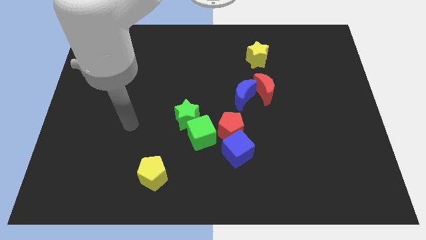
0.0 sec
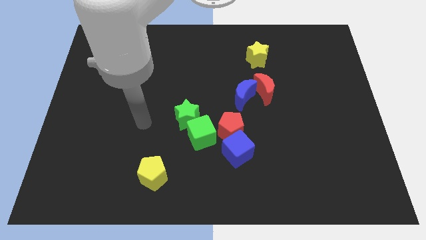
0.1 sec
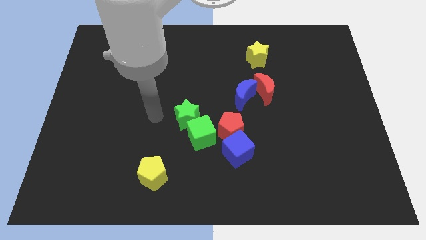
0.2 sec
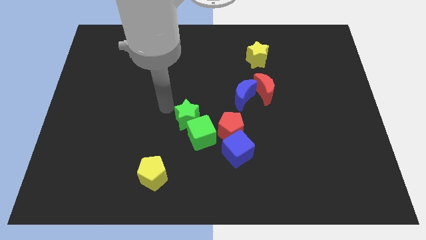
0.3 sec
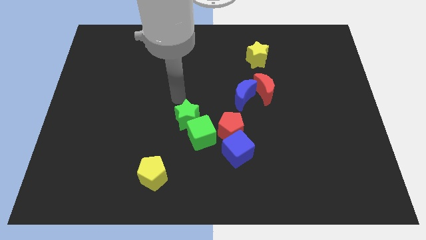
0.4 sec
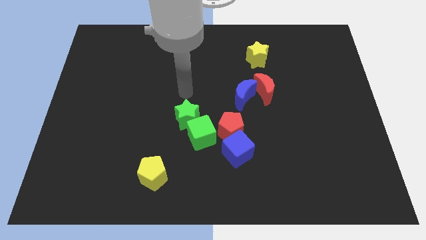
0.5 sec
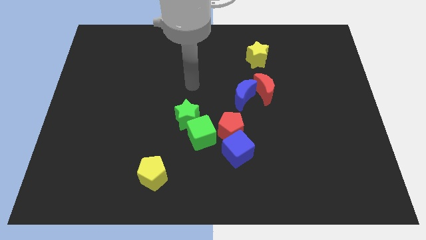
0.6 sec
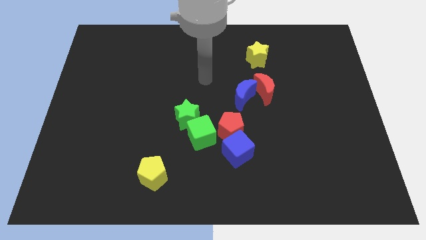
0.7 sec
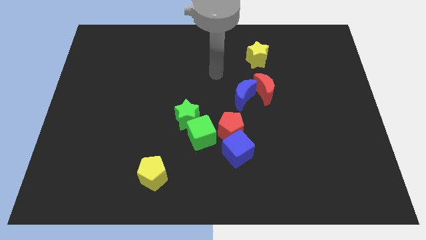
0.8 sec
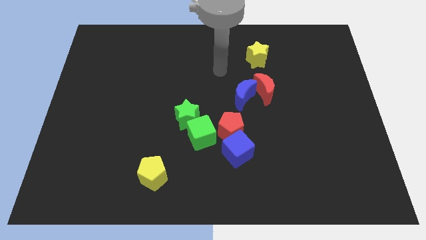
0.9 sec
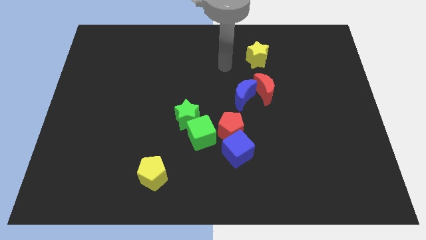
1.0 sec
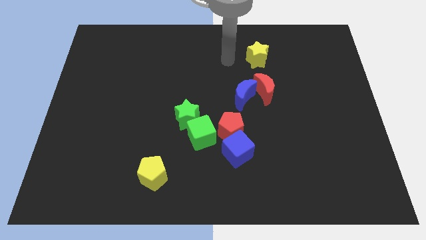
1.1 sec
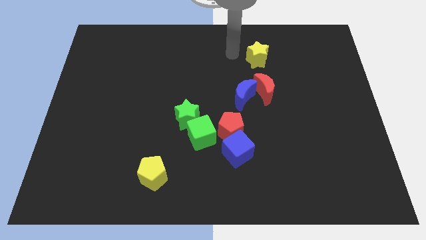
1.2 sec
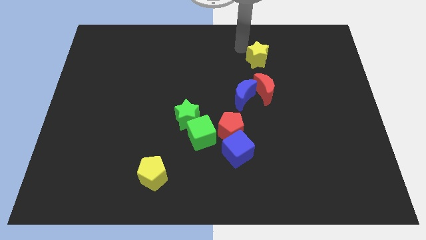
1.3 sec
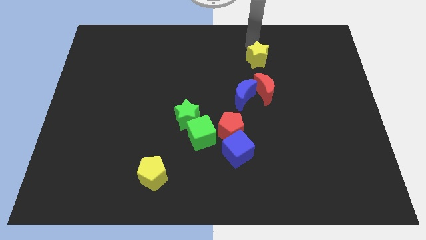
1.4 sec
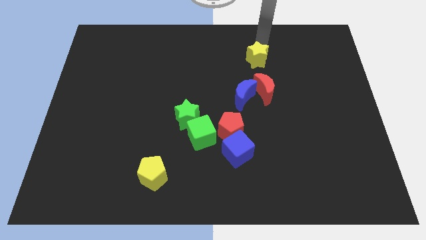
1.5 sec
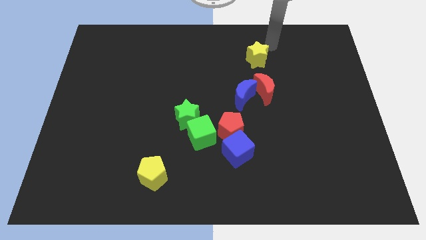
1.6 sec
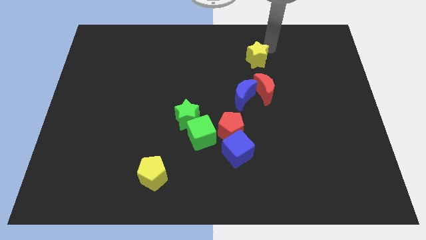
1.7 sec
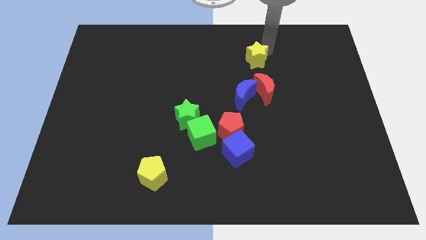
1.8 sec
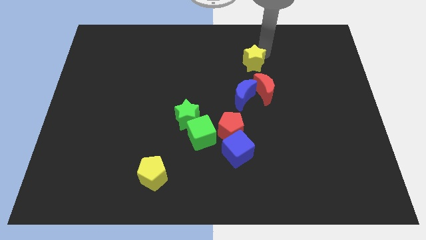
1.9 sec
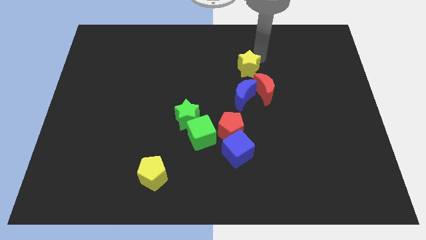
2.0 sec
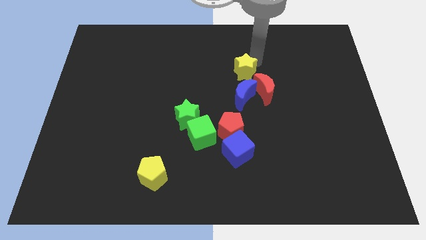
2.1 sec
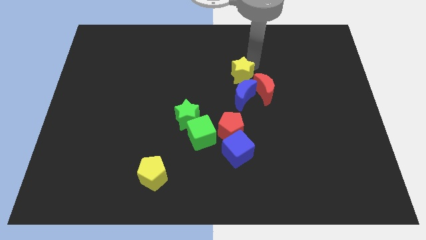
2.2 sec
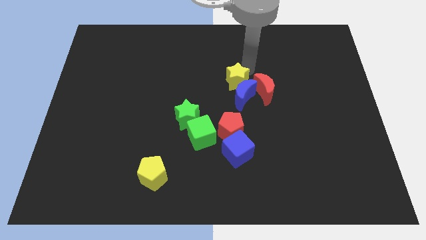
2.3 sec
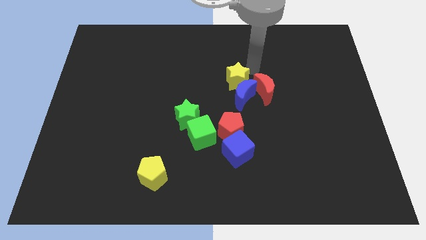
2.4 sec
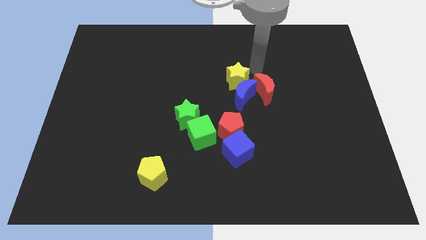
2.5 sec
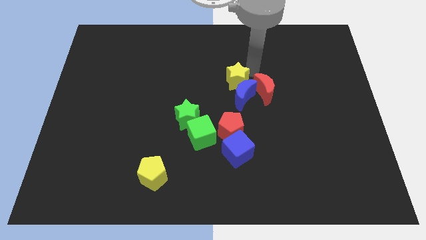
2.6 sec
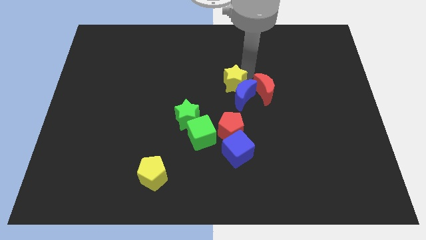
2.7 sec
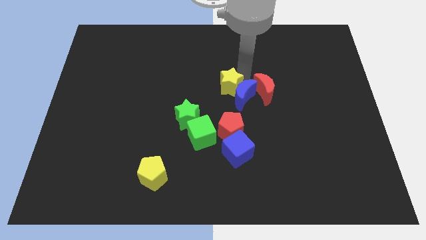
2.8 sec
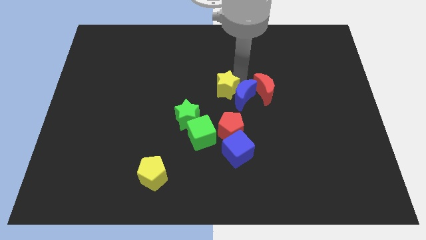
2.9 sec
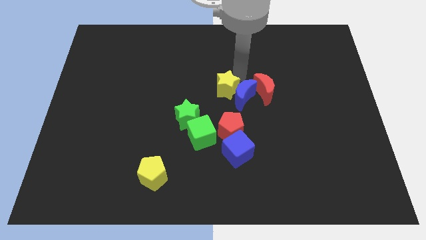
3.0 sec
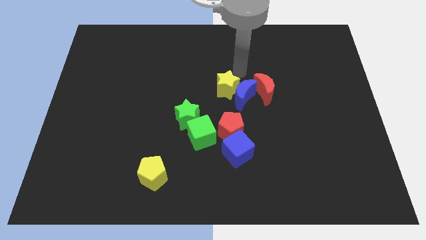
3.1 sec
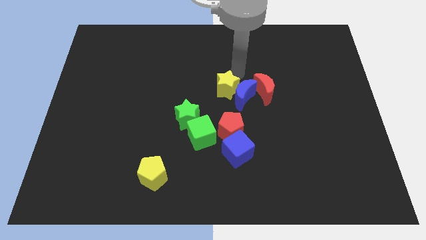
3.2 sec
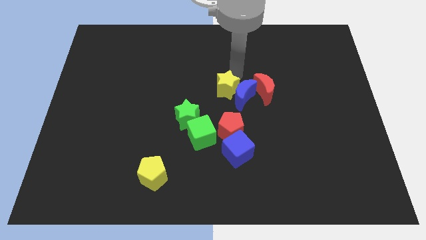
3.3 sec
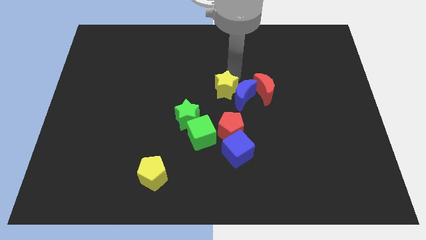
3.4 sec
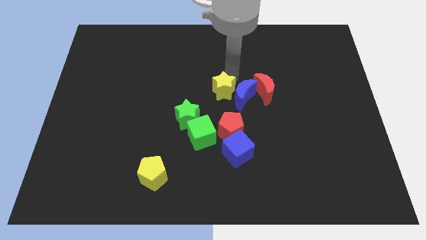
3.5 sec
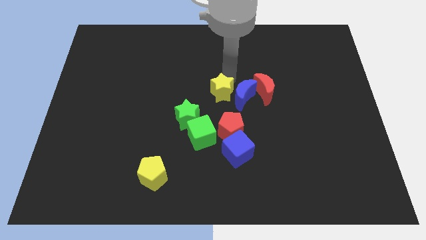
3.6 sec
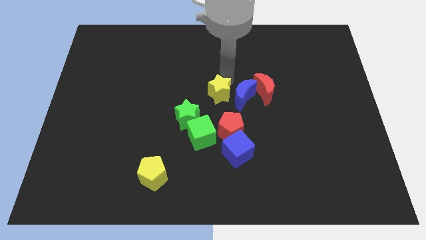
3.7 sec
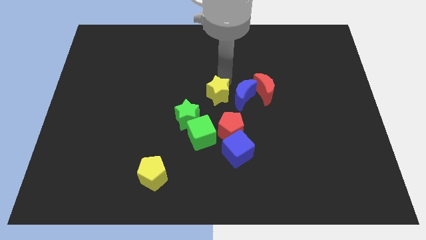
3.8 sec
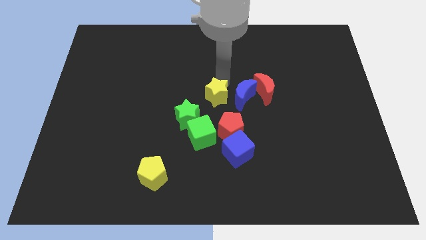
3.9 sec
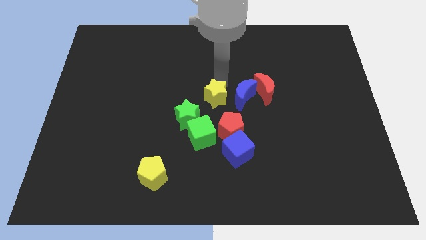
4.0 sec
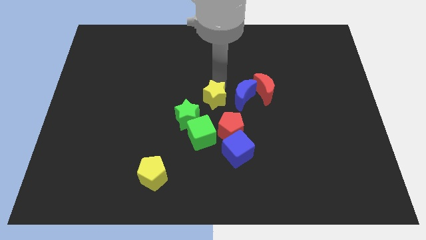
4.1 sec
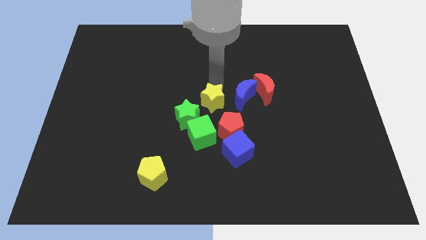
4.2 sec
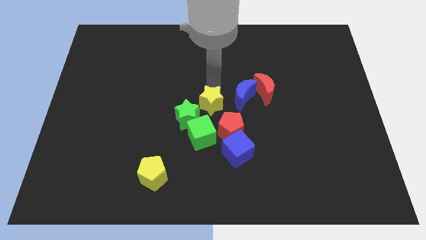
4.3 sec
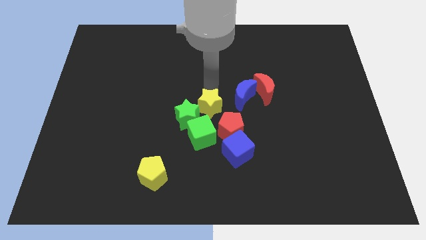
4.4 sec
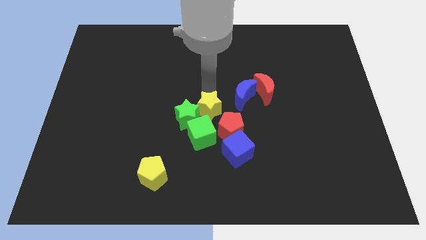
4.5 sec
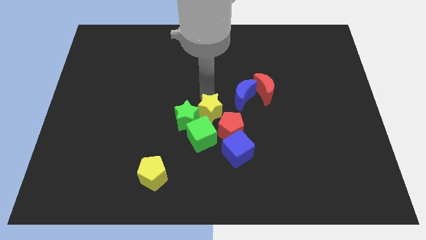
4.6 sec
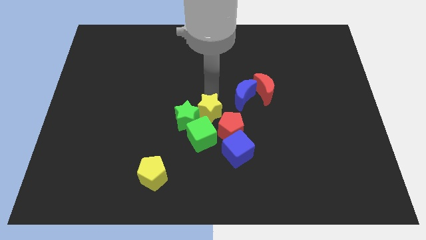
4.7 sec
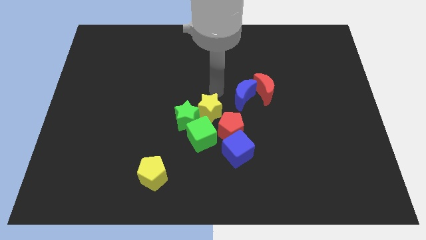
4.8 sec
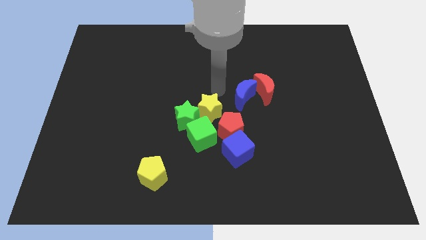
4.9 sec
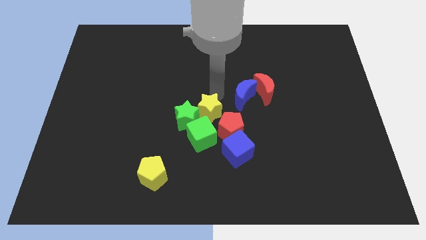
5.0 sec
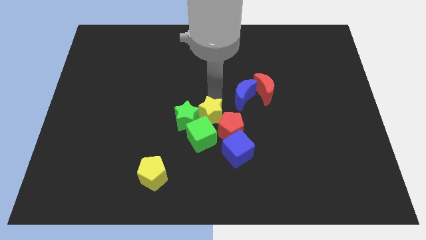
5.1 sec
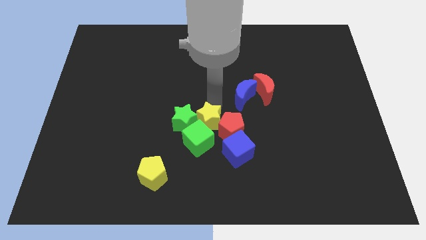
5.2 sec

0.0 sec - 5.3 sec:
slide the yellow star next to the green cube

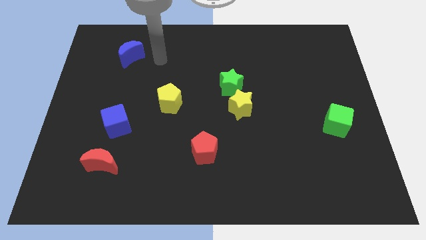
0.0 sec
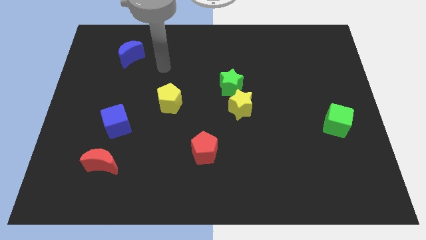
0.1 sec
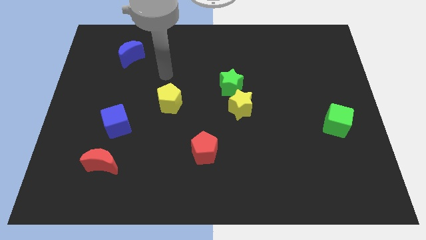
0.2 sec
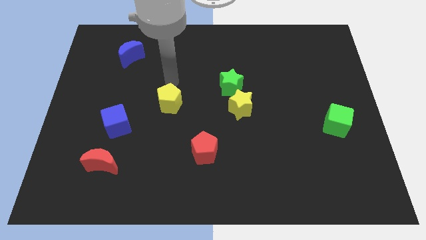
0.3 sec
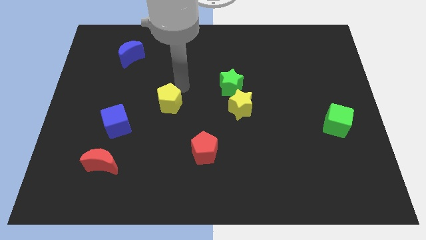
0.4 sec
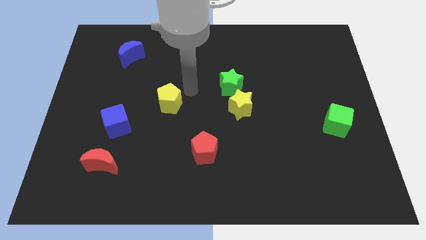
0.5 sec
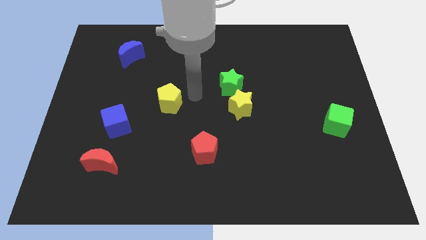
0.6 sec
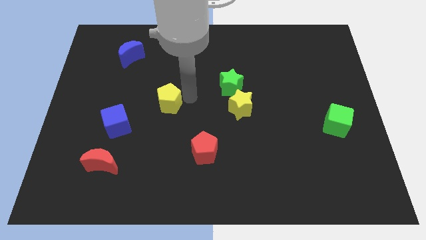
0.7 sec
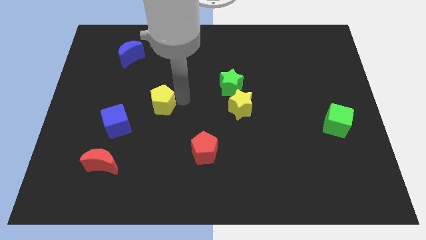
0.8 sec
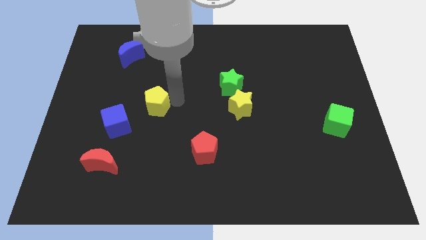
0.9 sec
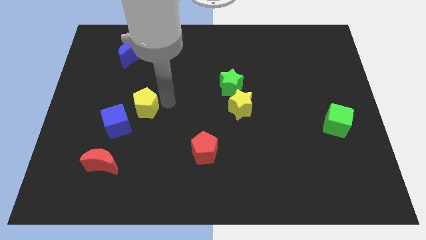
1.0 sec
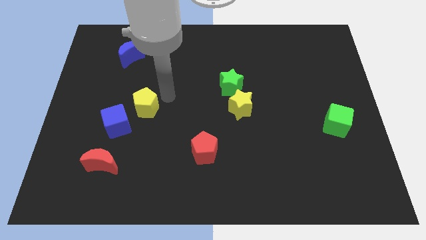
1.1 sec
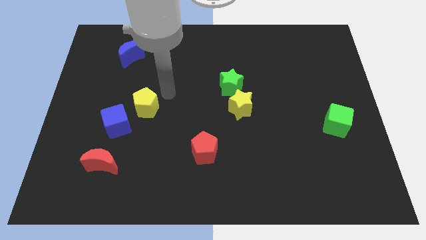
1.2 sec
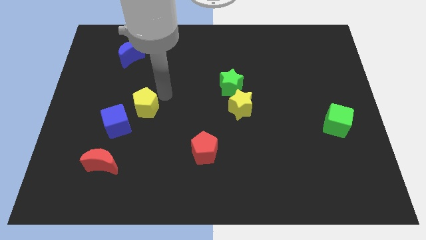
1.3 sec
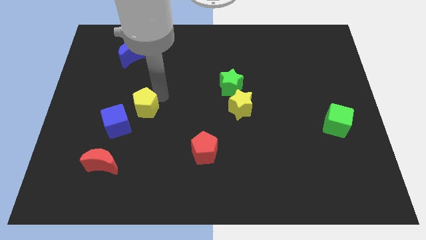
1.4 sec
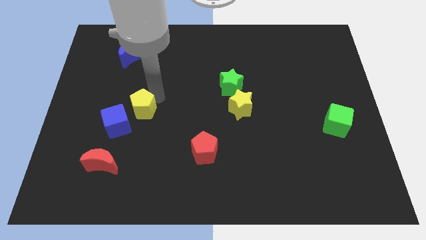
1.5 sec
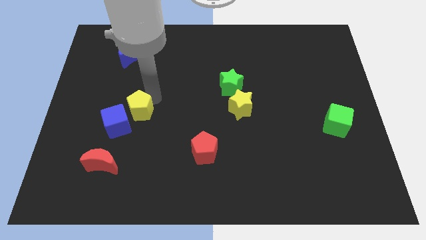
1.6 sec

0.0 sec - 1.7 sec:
move the yellow pentagon to the blue cube
